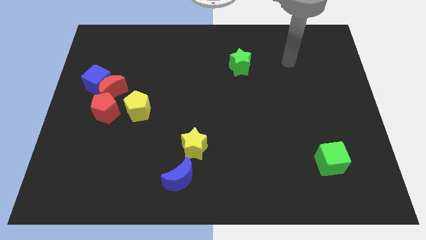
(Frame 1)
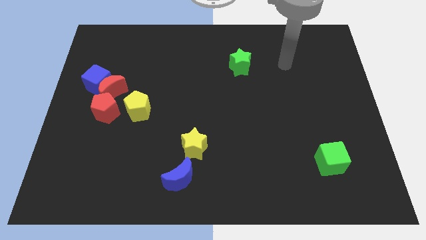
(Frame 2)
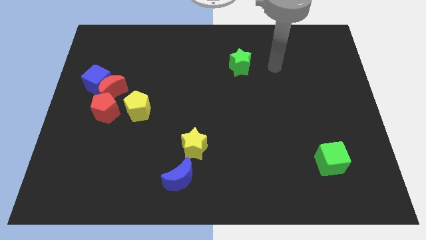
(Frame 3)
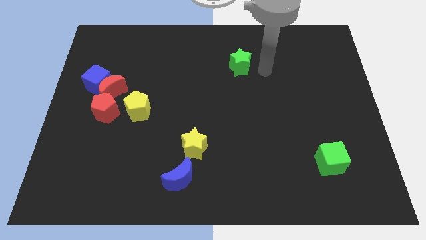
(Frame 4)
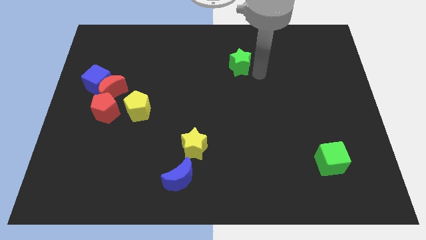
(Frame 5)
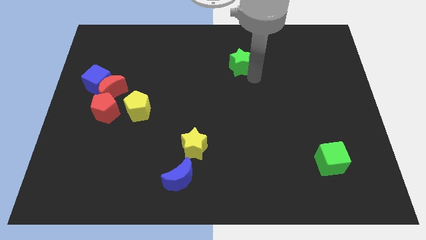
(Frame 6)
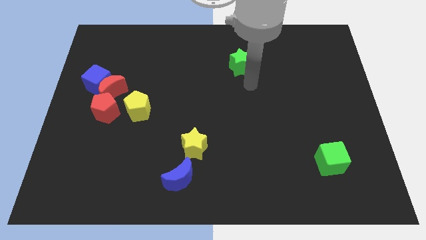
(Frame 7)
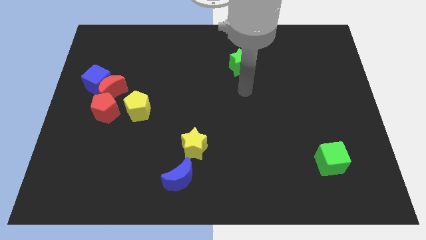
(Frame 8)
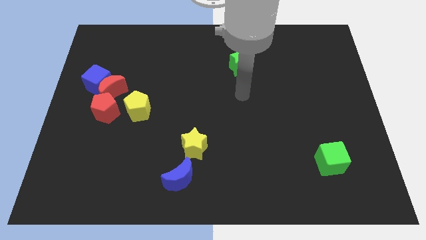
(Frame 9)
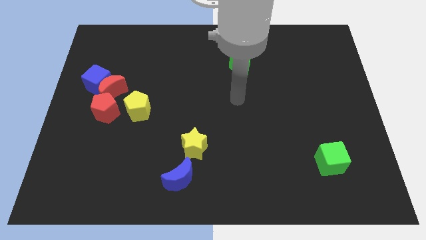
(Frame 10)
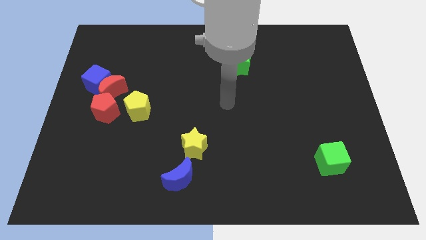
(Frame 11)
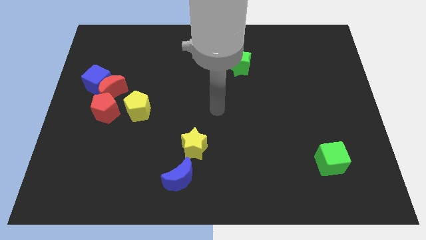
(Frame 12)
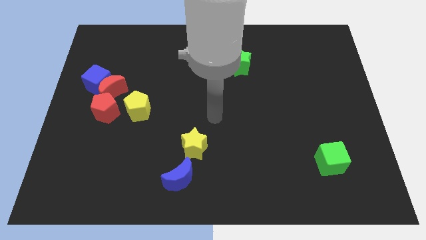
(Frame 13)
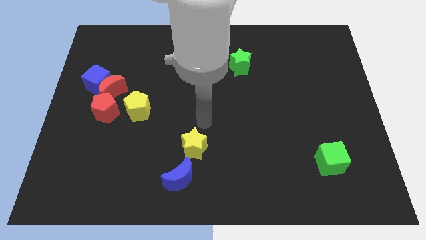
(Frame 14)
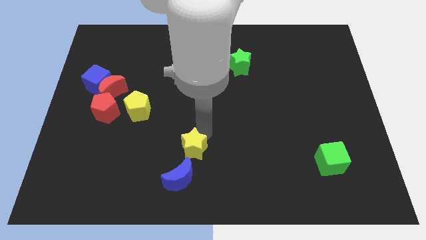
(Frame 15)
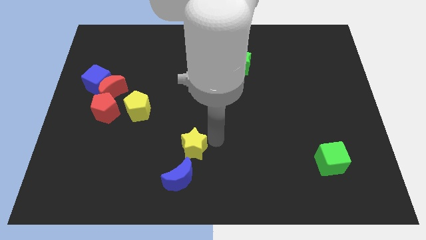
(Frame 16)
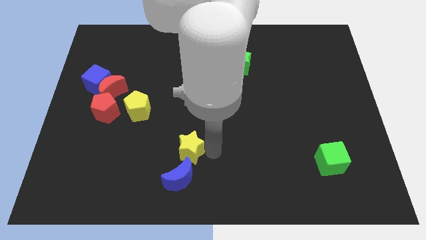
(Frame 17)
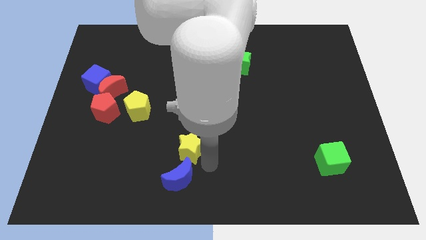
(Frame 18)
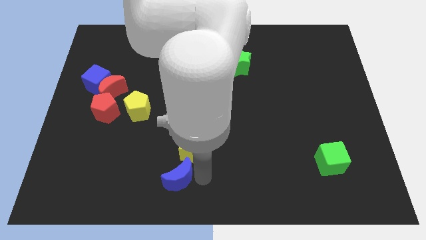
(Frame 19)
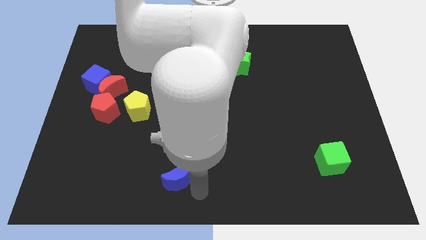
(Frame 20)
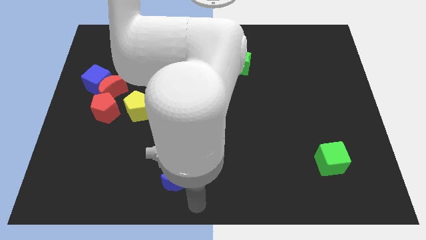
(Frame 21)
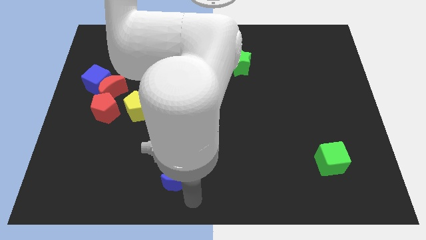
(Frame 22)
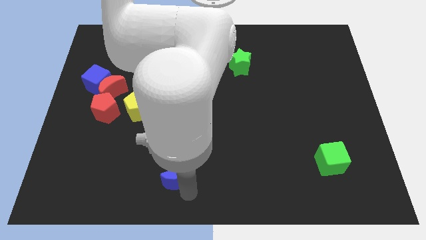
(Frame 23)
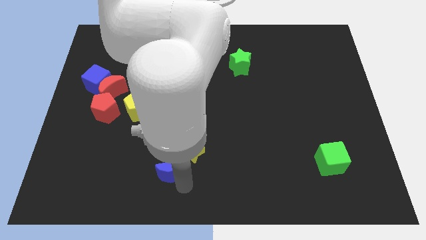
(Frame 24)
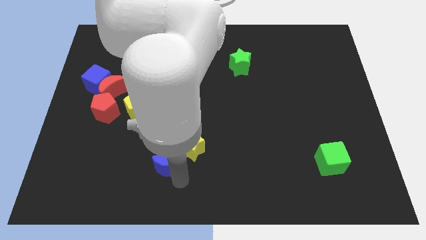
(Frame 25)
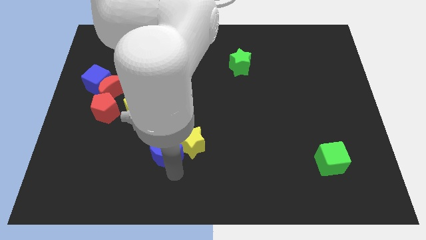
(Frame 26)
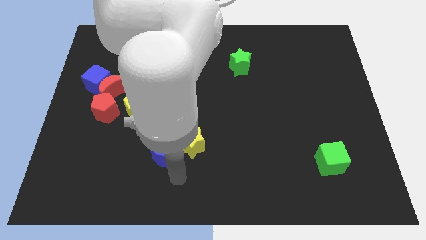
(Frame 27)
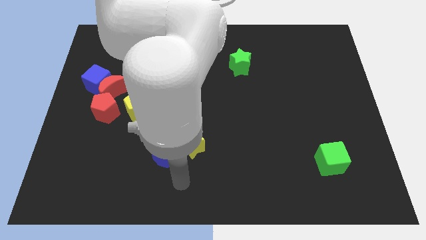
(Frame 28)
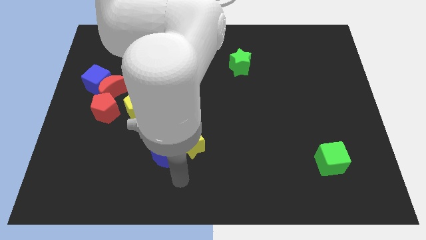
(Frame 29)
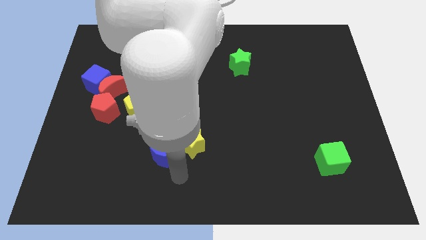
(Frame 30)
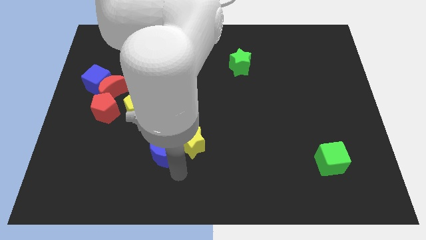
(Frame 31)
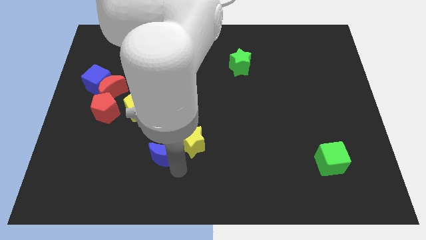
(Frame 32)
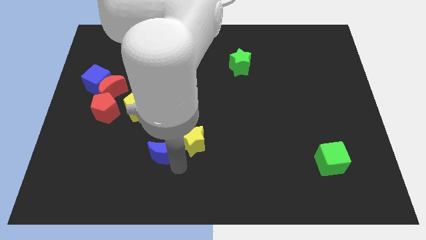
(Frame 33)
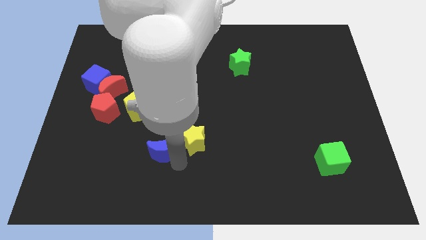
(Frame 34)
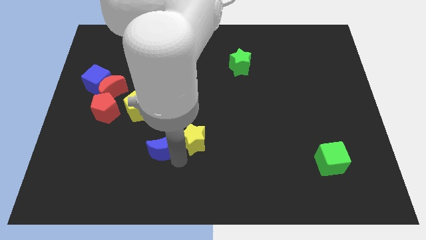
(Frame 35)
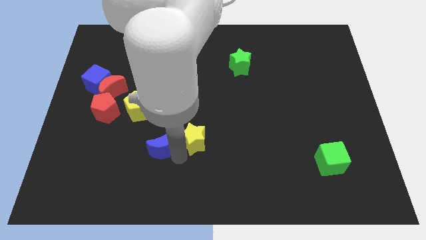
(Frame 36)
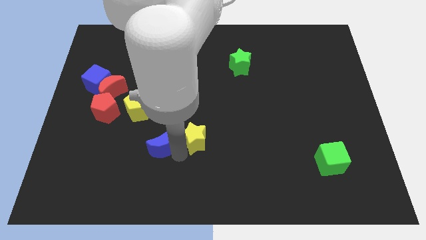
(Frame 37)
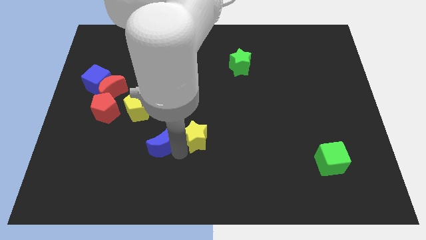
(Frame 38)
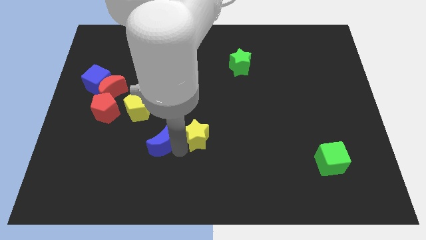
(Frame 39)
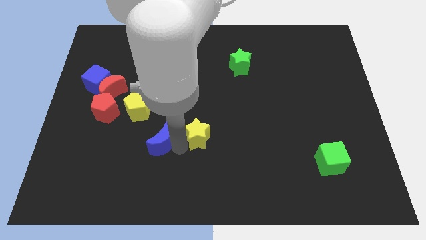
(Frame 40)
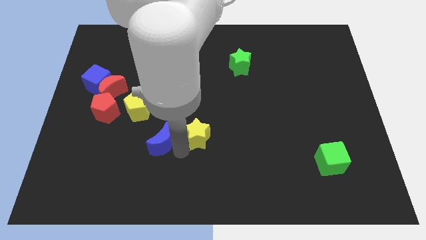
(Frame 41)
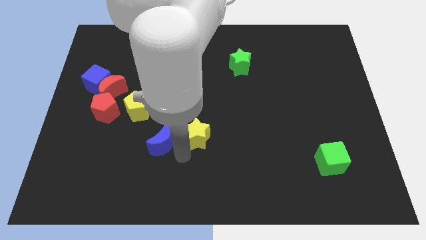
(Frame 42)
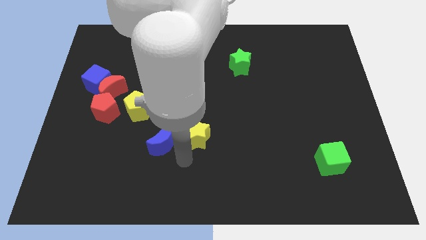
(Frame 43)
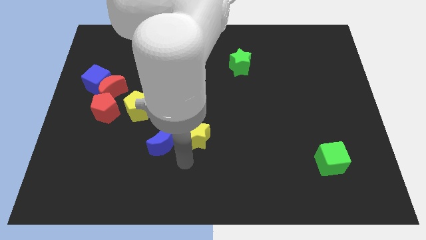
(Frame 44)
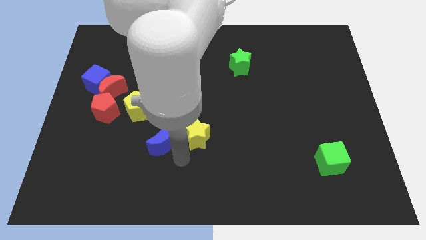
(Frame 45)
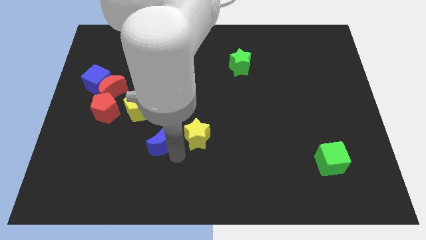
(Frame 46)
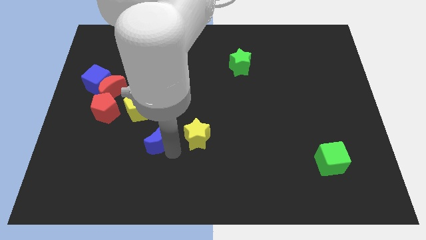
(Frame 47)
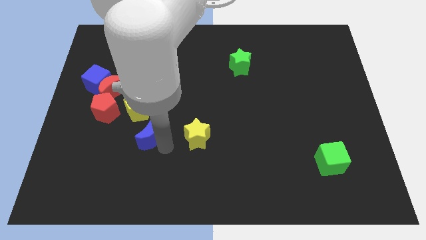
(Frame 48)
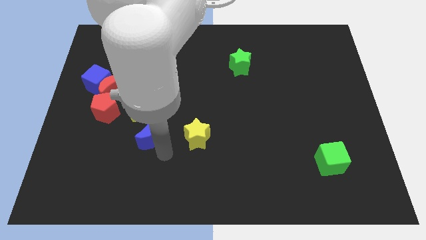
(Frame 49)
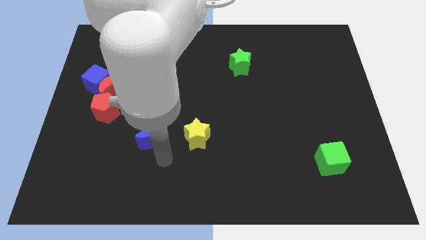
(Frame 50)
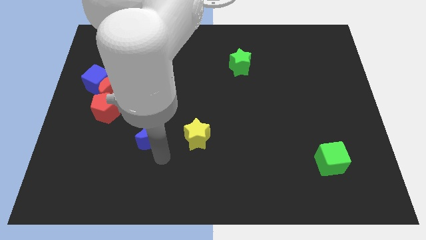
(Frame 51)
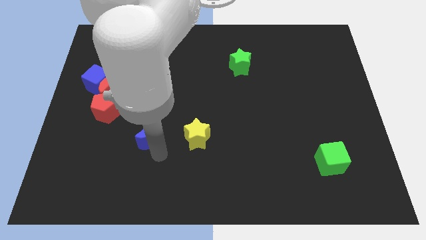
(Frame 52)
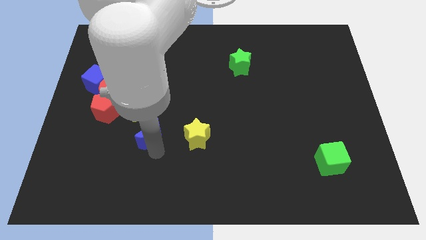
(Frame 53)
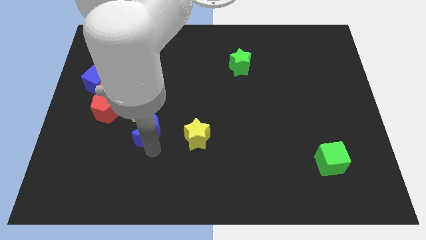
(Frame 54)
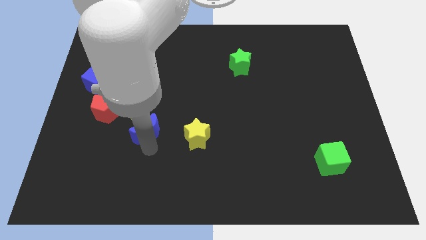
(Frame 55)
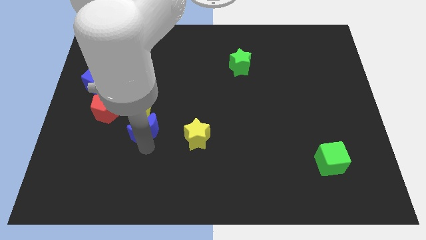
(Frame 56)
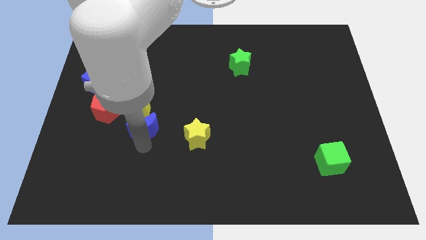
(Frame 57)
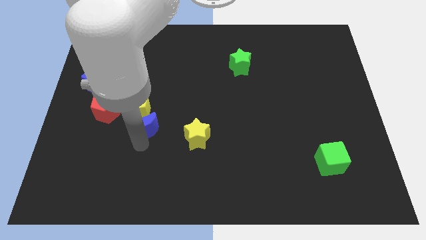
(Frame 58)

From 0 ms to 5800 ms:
move the blue moon next to the yellow pentagon

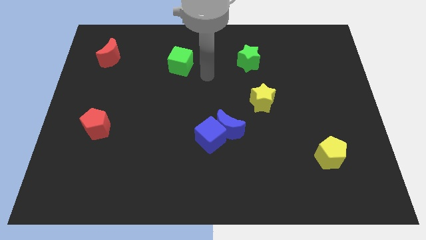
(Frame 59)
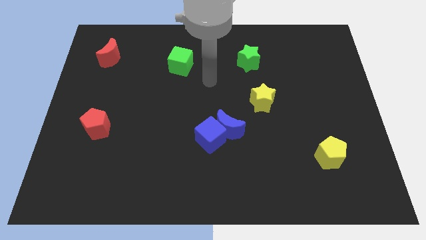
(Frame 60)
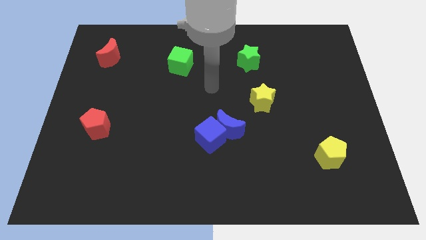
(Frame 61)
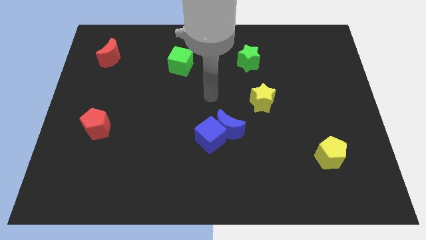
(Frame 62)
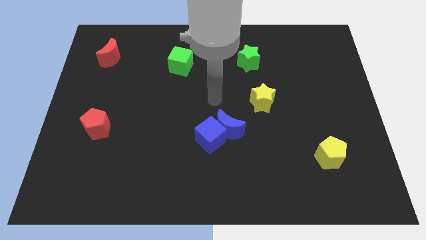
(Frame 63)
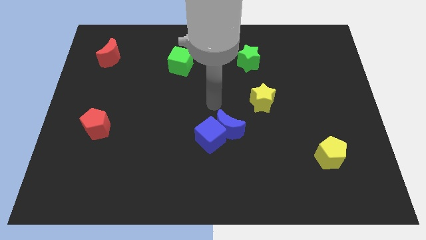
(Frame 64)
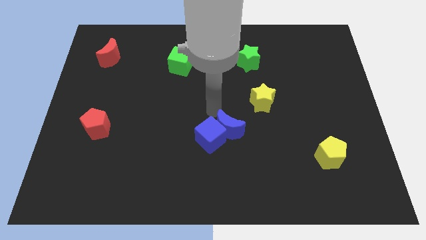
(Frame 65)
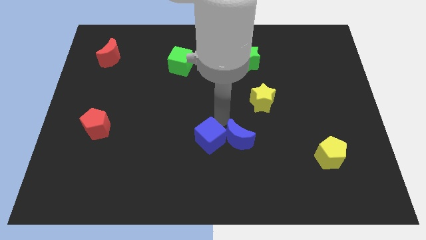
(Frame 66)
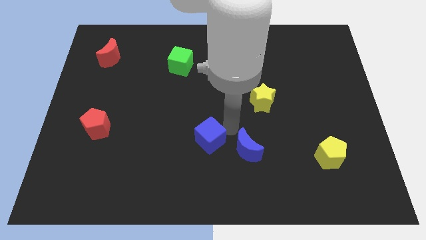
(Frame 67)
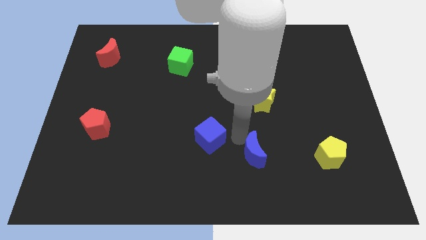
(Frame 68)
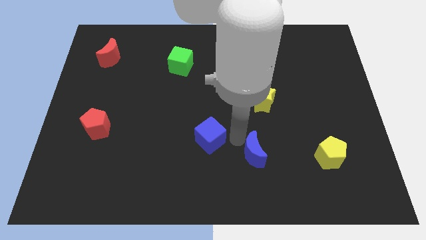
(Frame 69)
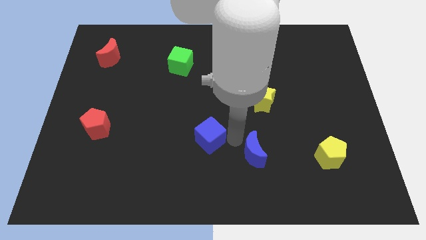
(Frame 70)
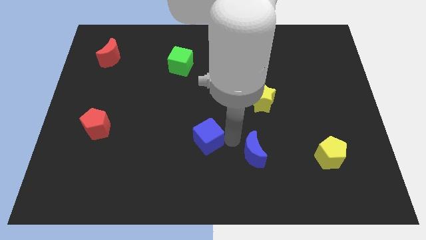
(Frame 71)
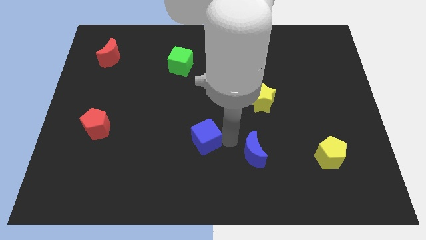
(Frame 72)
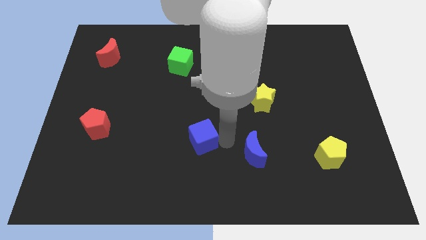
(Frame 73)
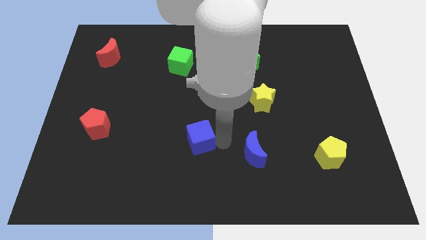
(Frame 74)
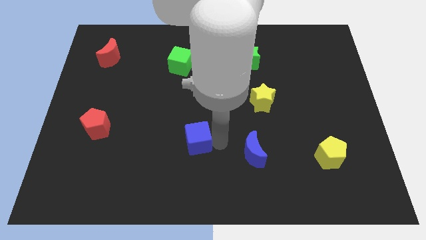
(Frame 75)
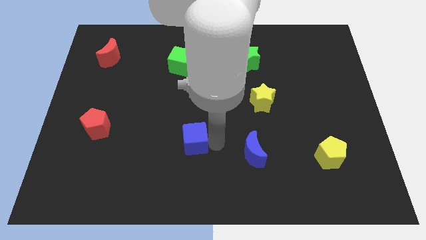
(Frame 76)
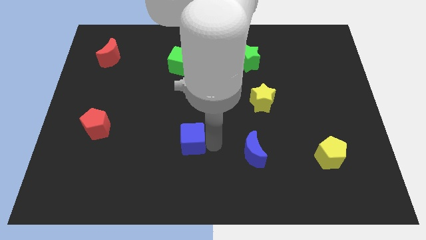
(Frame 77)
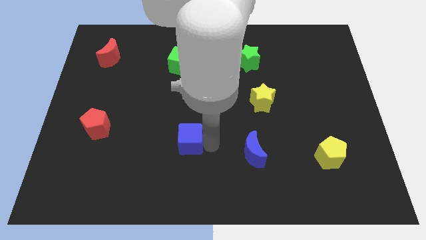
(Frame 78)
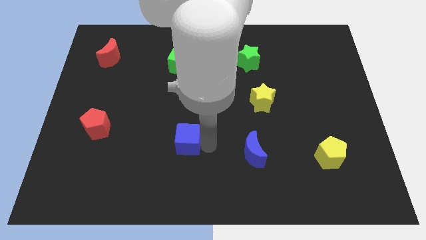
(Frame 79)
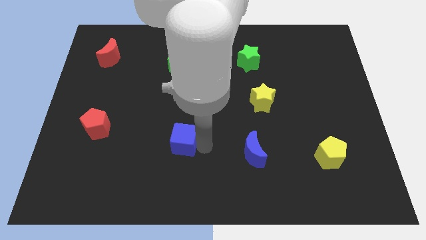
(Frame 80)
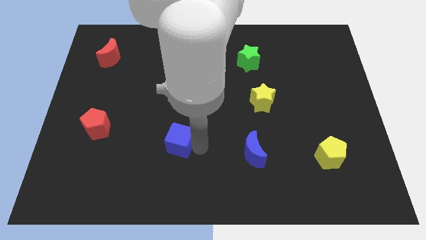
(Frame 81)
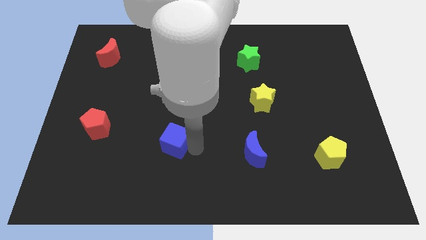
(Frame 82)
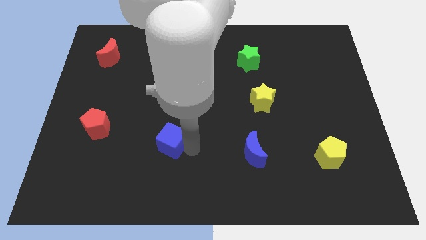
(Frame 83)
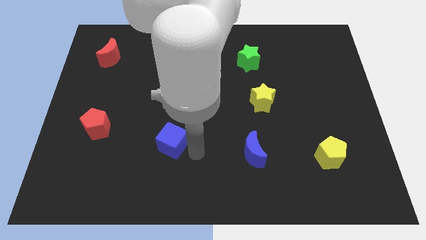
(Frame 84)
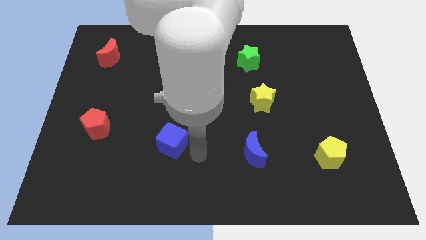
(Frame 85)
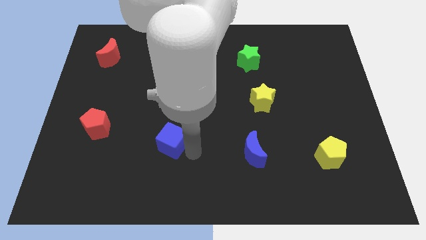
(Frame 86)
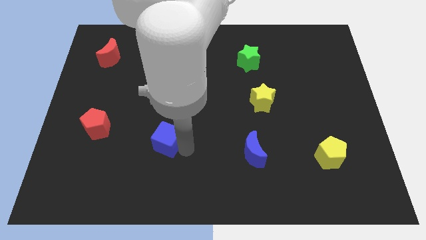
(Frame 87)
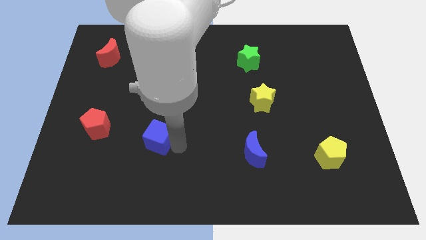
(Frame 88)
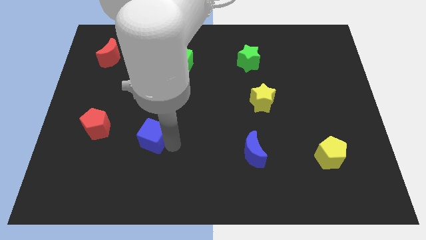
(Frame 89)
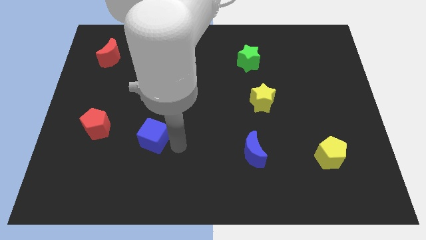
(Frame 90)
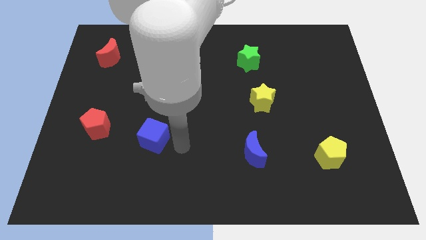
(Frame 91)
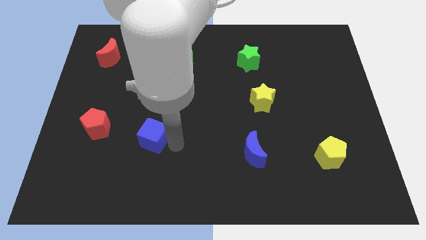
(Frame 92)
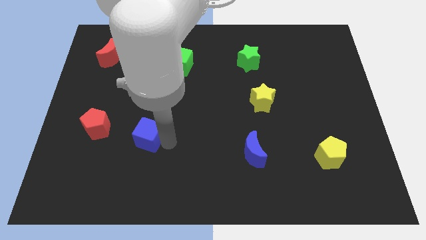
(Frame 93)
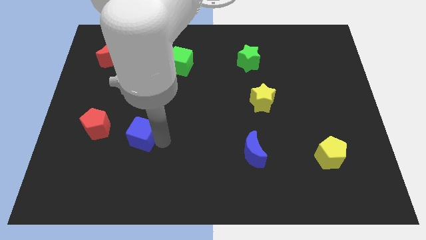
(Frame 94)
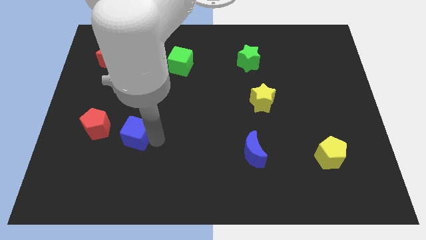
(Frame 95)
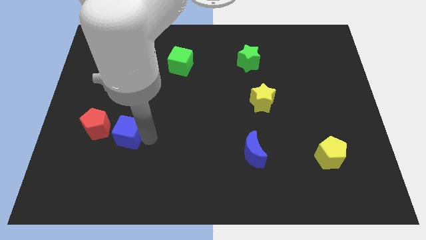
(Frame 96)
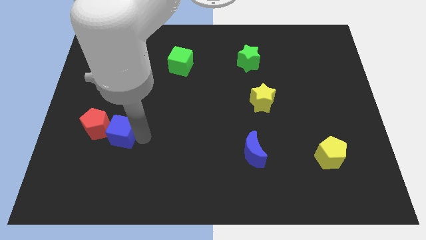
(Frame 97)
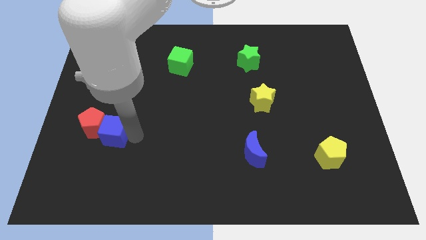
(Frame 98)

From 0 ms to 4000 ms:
put the blue cube to the red pentagon
